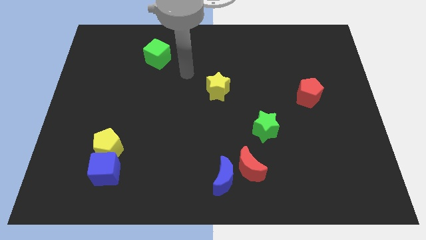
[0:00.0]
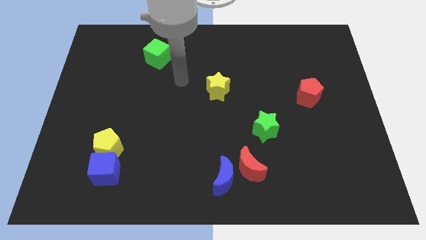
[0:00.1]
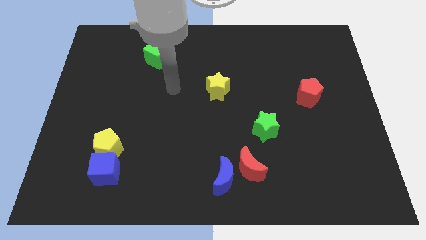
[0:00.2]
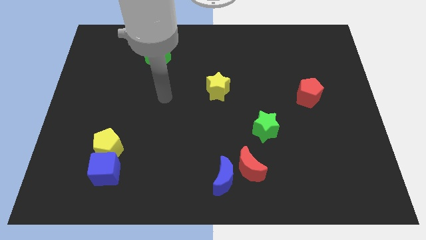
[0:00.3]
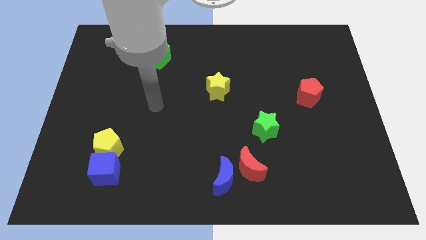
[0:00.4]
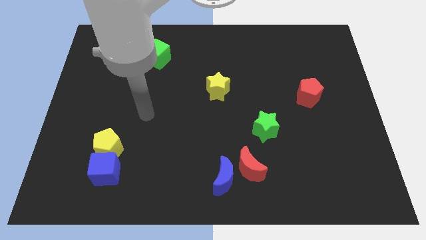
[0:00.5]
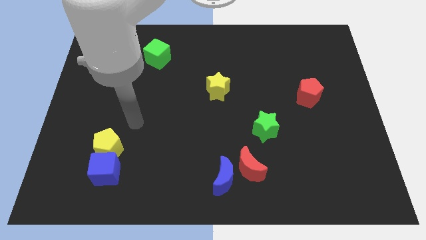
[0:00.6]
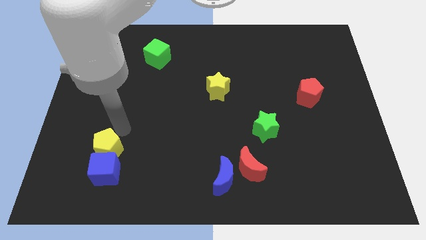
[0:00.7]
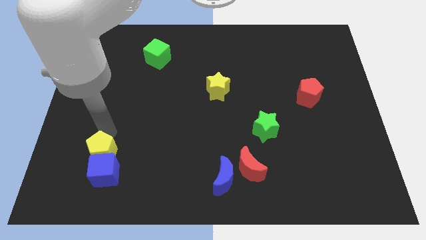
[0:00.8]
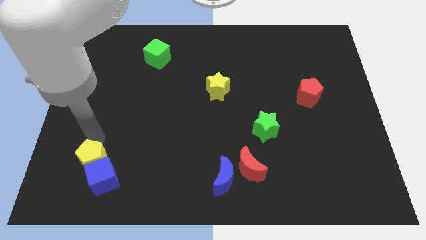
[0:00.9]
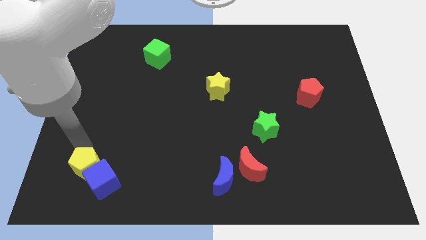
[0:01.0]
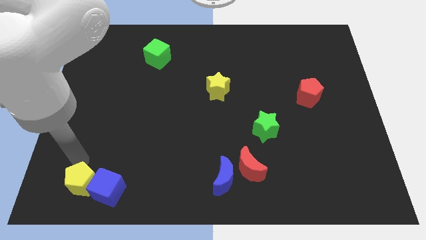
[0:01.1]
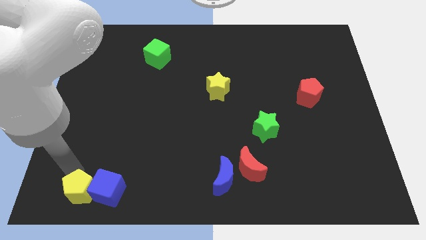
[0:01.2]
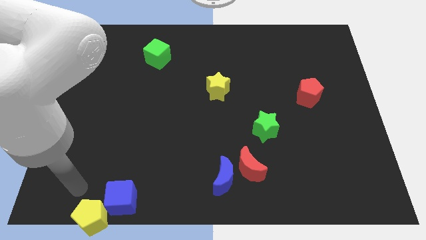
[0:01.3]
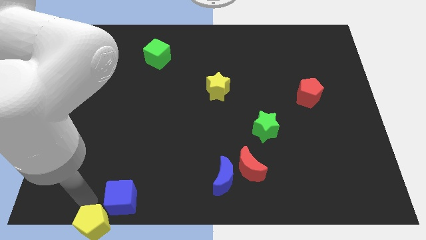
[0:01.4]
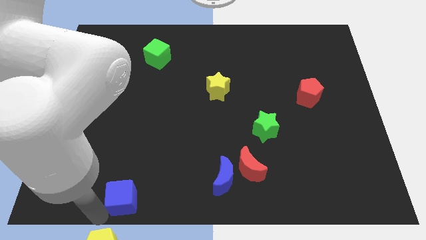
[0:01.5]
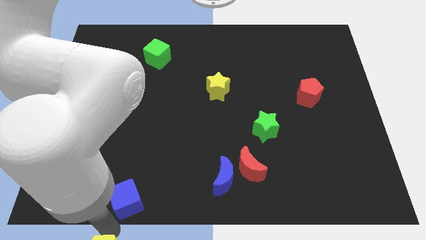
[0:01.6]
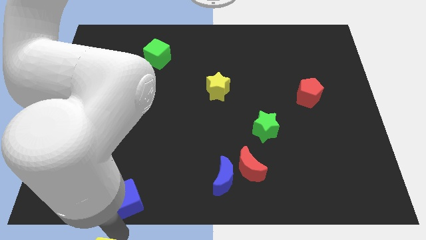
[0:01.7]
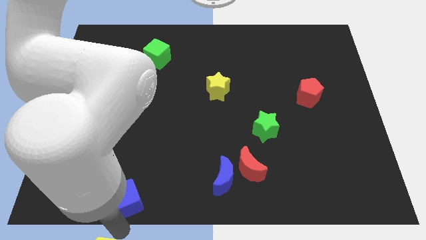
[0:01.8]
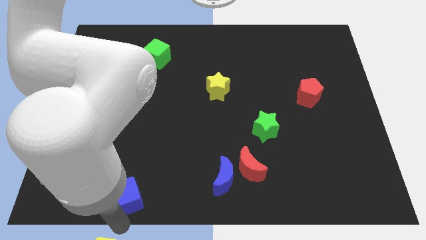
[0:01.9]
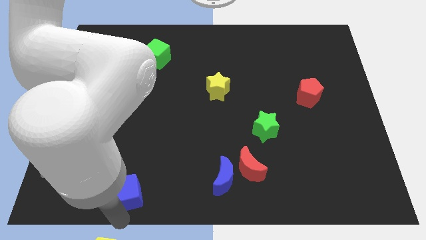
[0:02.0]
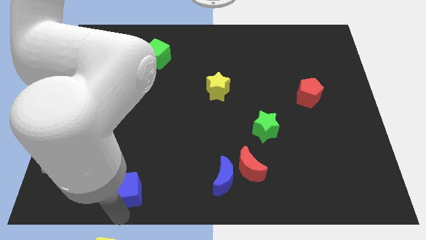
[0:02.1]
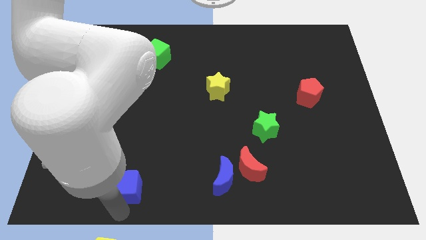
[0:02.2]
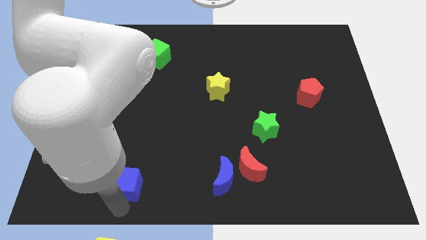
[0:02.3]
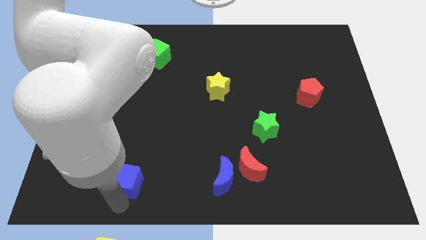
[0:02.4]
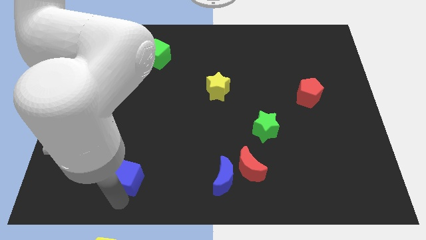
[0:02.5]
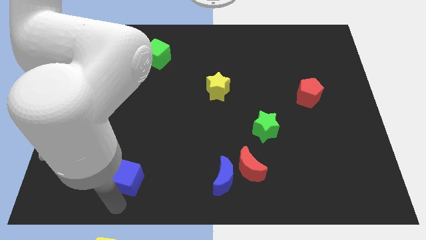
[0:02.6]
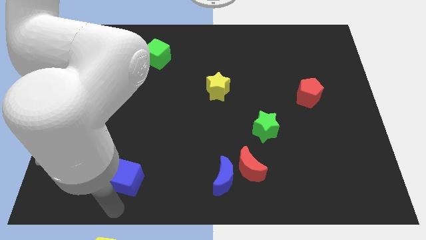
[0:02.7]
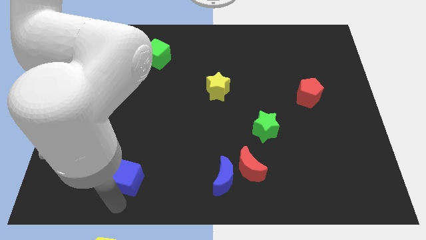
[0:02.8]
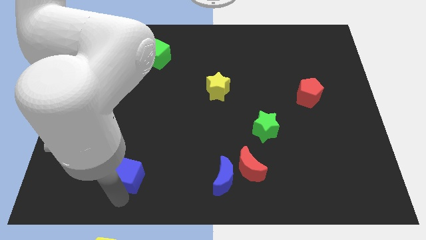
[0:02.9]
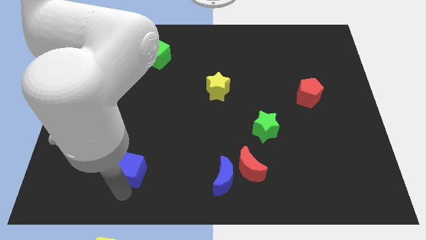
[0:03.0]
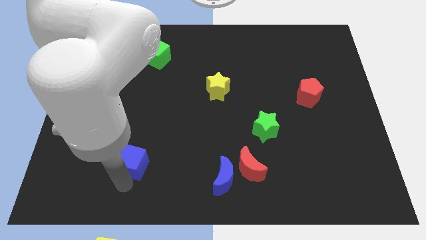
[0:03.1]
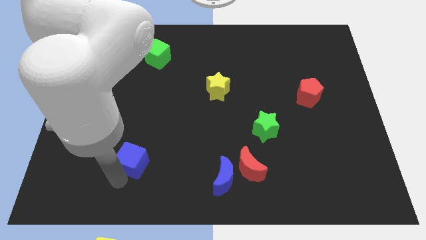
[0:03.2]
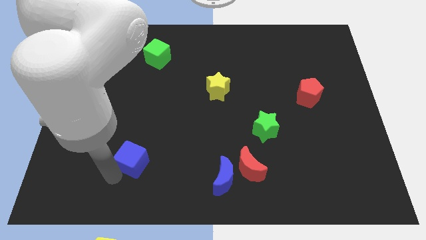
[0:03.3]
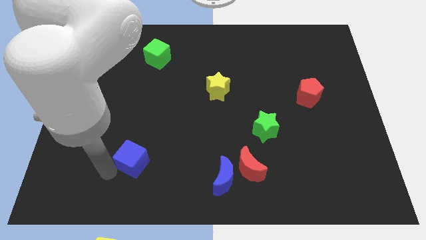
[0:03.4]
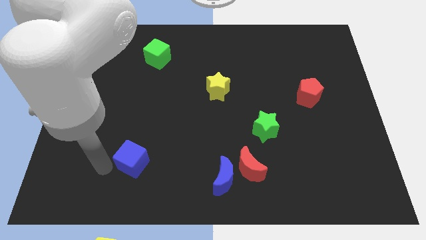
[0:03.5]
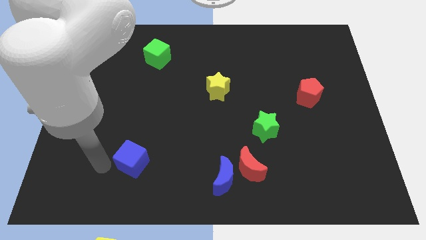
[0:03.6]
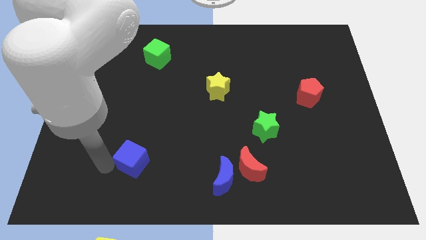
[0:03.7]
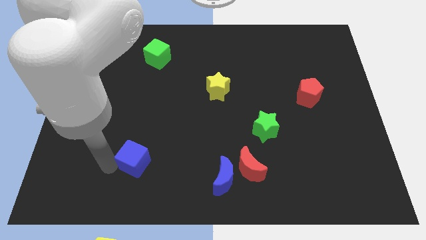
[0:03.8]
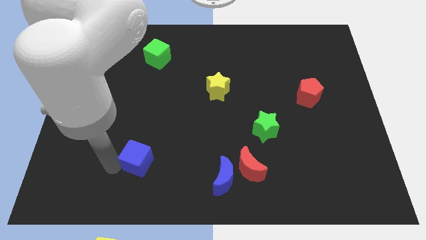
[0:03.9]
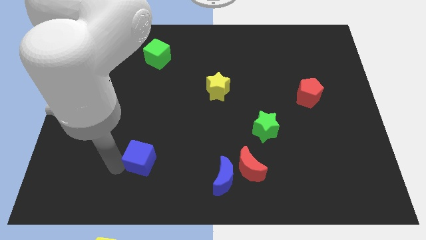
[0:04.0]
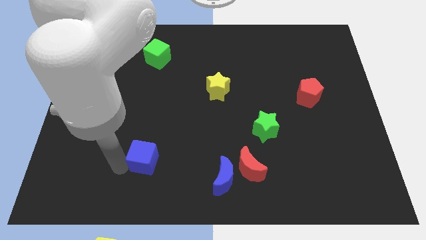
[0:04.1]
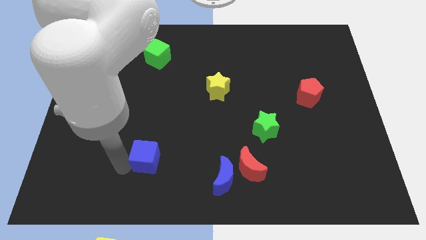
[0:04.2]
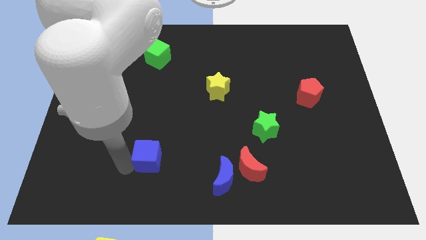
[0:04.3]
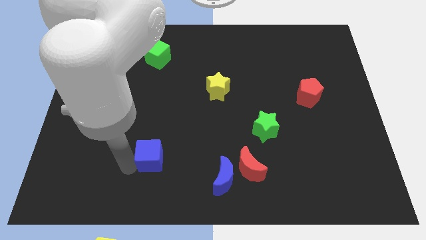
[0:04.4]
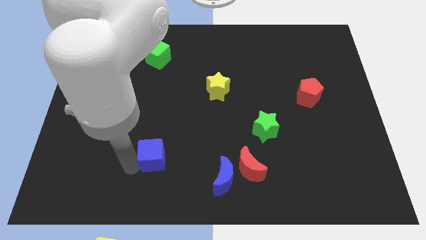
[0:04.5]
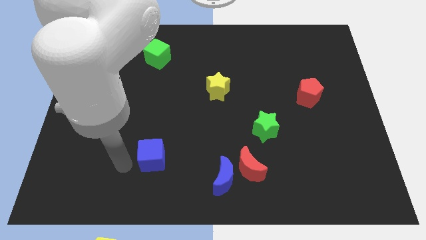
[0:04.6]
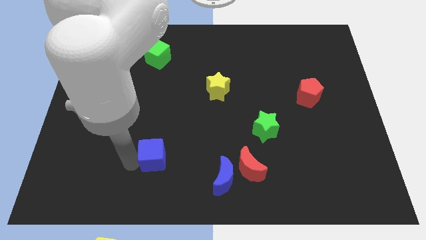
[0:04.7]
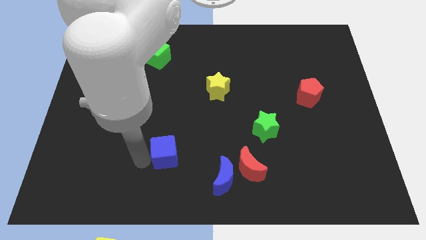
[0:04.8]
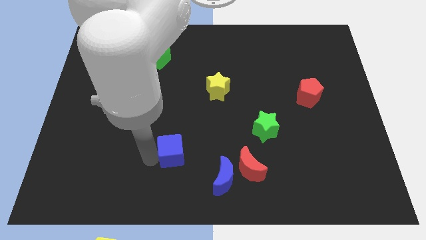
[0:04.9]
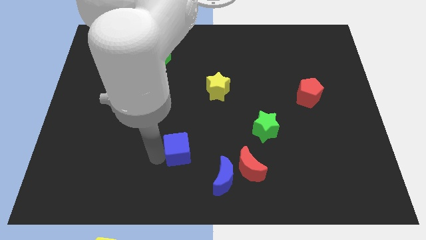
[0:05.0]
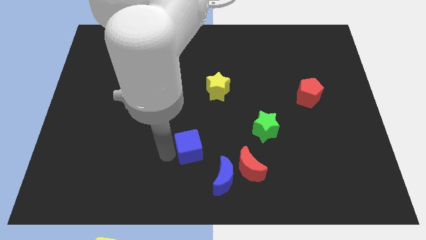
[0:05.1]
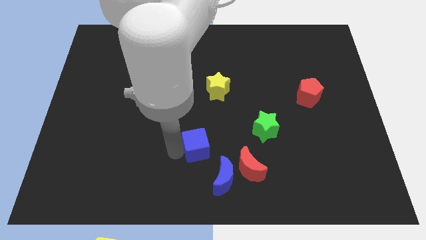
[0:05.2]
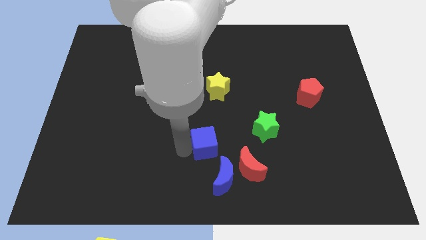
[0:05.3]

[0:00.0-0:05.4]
put the blue cube diagonally up and to the left of the red moon

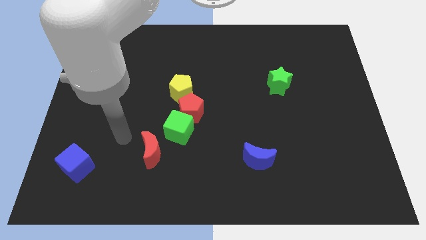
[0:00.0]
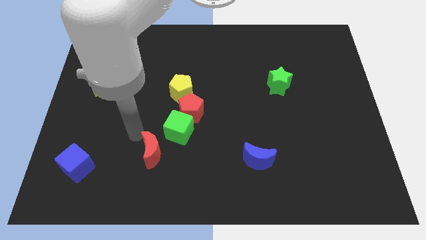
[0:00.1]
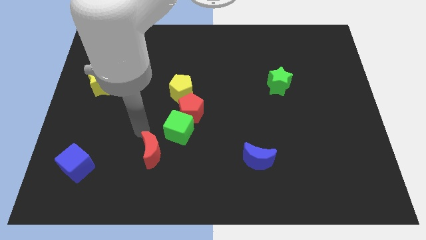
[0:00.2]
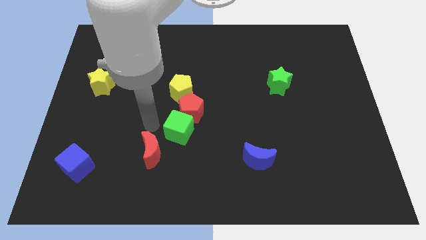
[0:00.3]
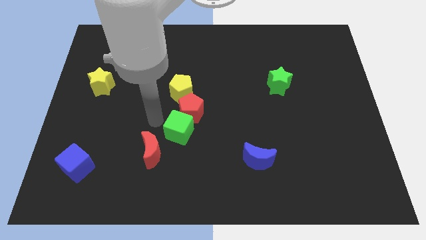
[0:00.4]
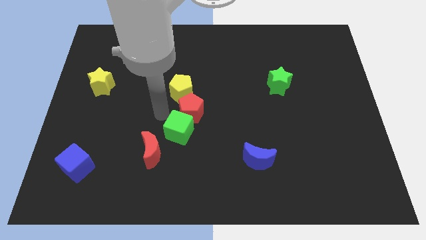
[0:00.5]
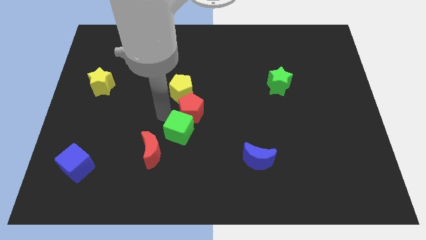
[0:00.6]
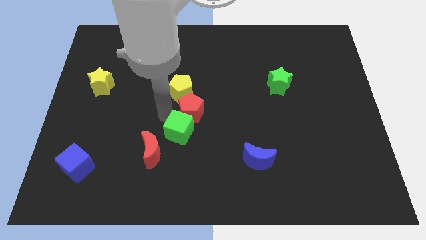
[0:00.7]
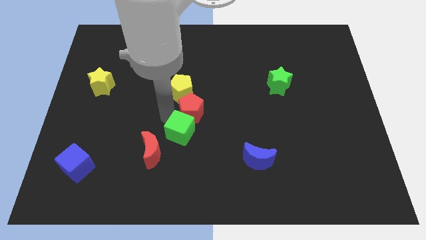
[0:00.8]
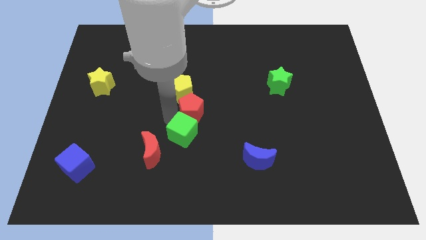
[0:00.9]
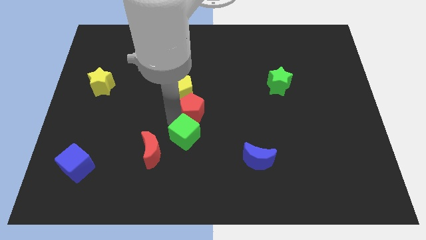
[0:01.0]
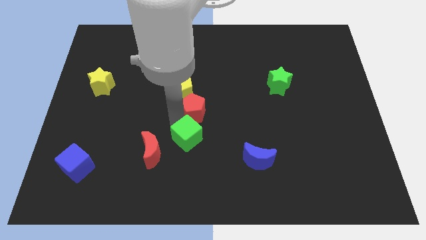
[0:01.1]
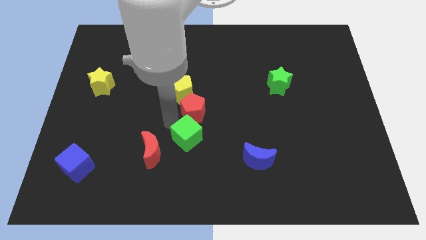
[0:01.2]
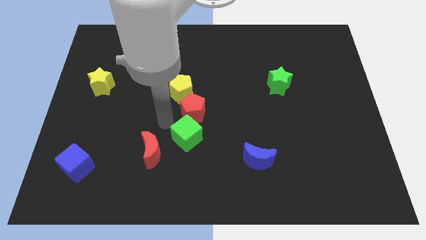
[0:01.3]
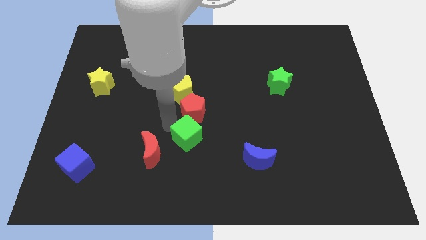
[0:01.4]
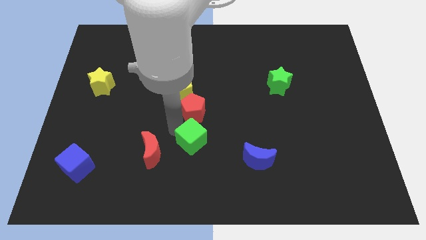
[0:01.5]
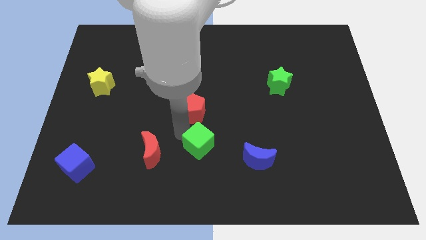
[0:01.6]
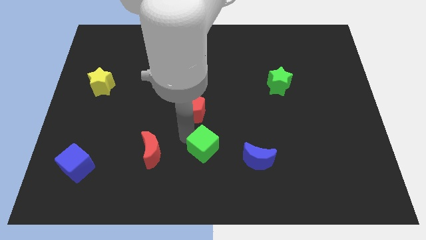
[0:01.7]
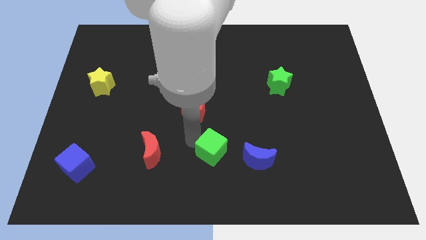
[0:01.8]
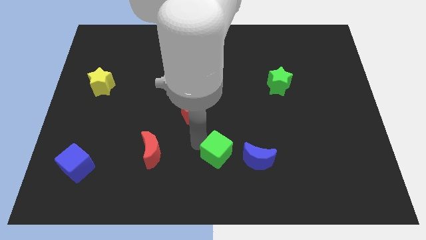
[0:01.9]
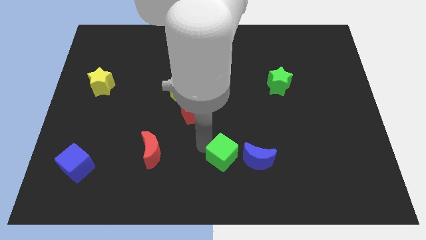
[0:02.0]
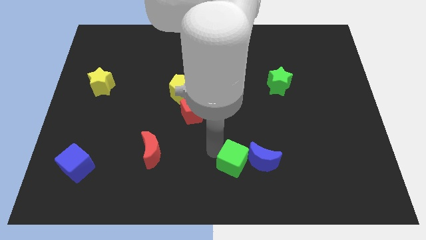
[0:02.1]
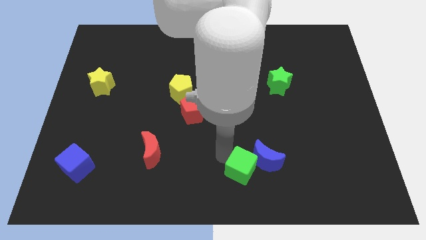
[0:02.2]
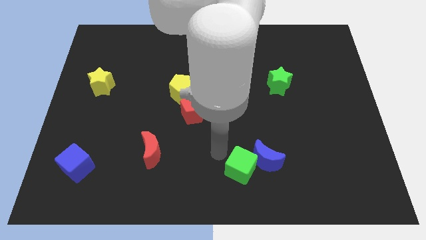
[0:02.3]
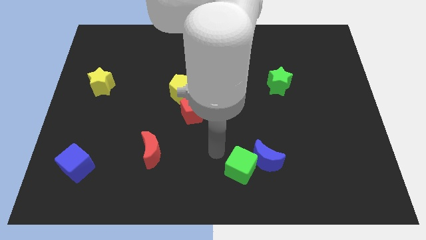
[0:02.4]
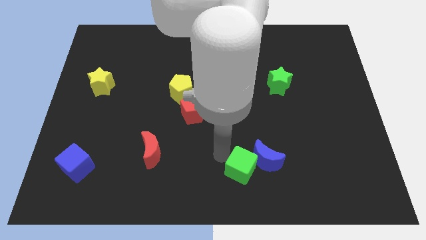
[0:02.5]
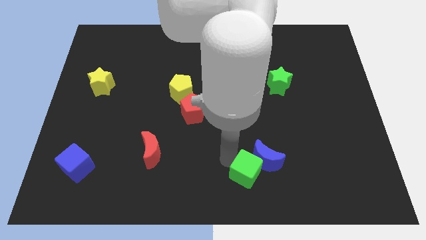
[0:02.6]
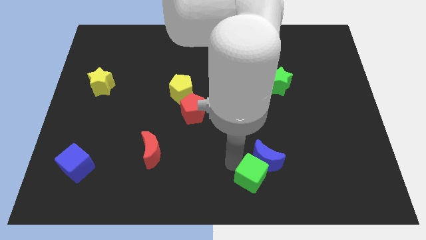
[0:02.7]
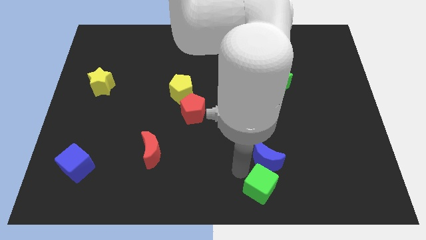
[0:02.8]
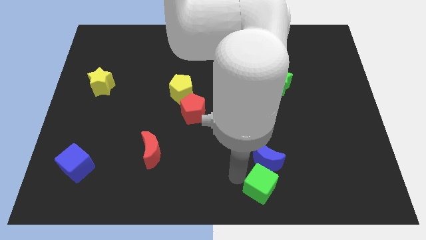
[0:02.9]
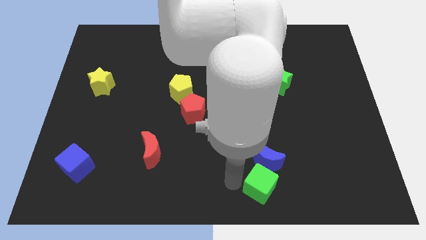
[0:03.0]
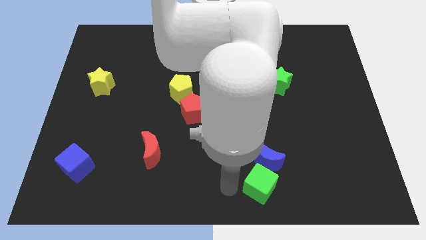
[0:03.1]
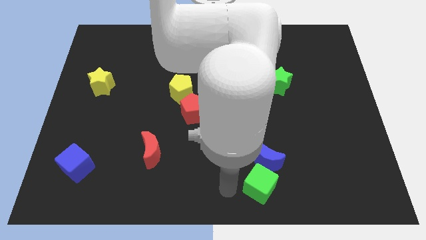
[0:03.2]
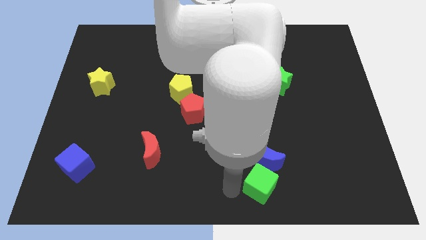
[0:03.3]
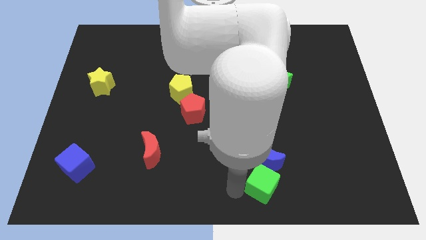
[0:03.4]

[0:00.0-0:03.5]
put the green cube diagonally down and to the right of the blue moon
